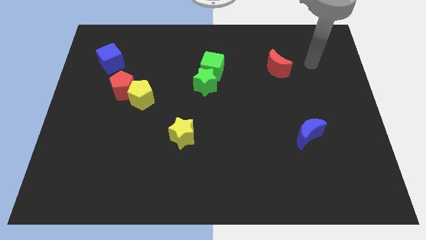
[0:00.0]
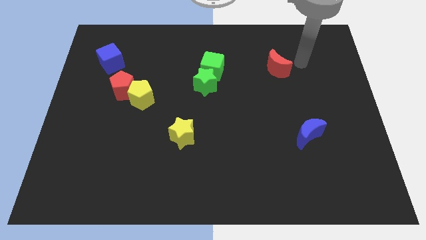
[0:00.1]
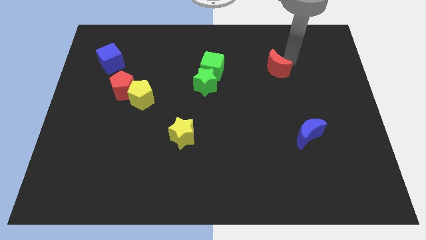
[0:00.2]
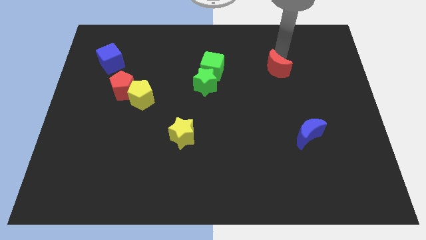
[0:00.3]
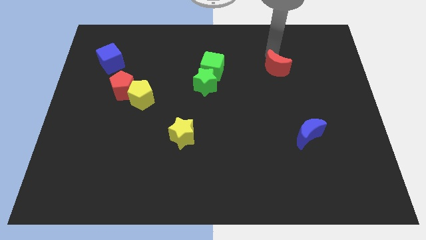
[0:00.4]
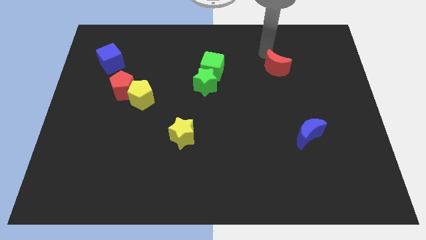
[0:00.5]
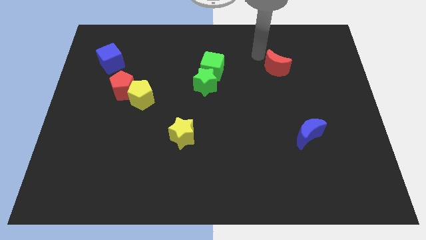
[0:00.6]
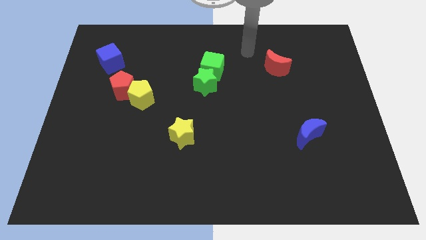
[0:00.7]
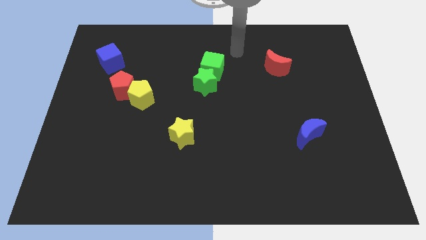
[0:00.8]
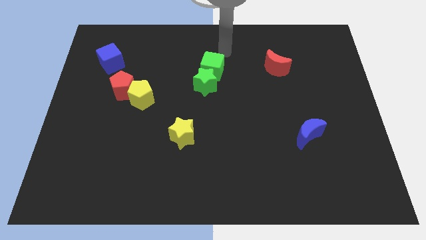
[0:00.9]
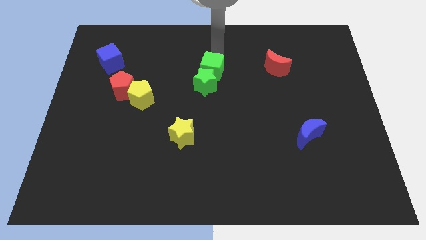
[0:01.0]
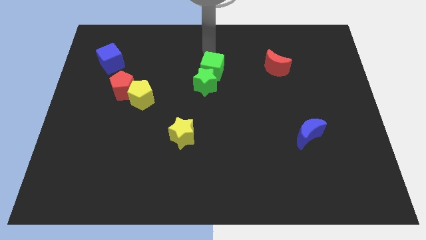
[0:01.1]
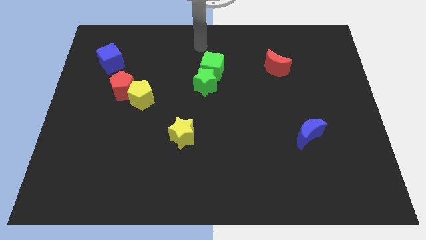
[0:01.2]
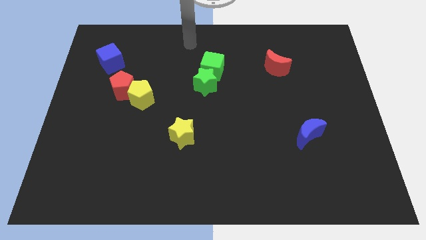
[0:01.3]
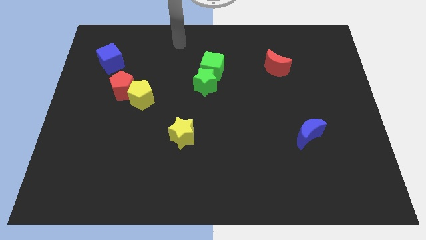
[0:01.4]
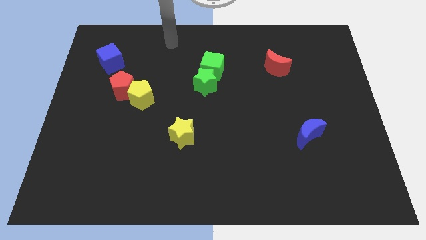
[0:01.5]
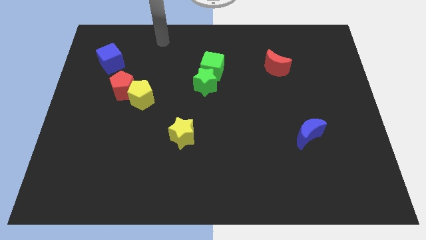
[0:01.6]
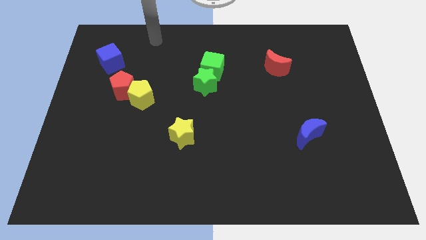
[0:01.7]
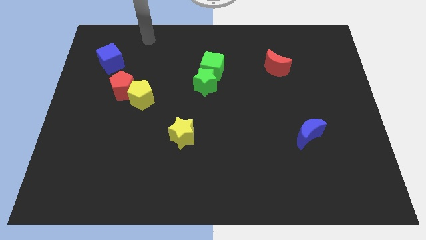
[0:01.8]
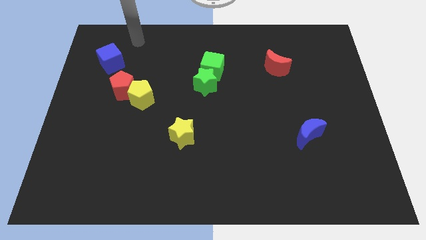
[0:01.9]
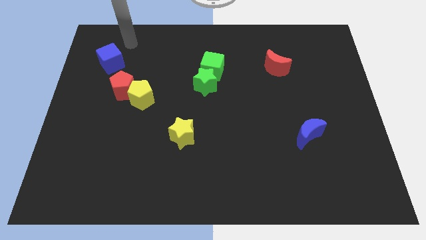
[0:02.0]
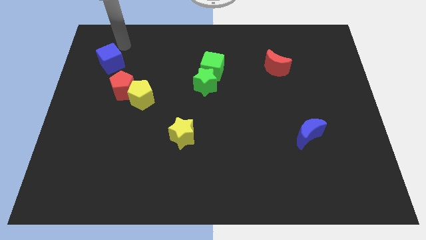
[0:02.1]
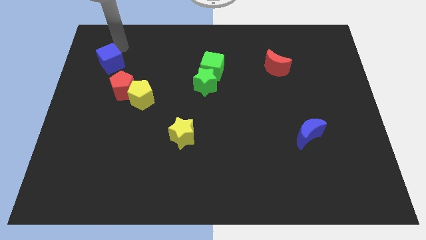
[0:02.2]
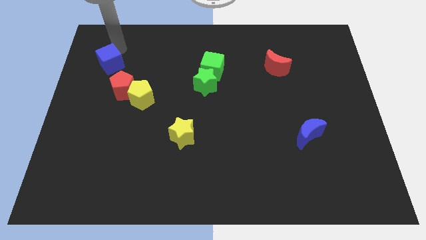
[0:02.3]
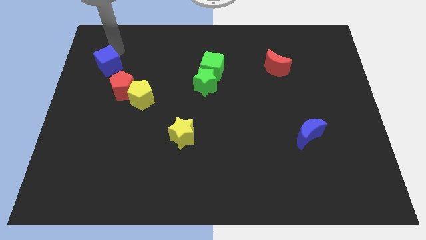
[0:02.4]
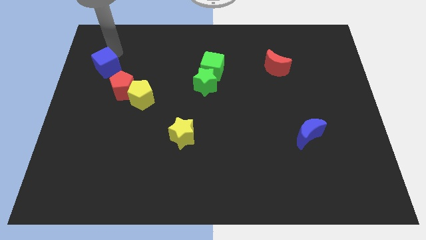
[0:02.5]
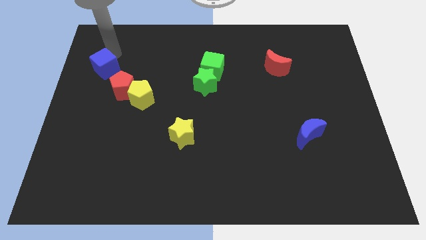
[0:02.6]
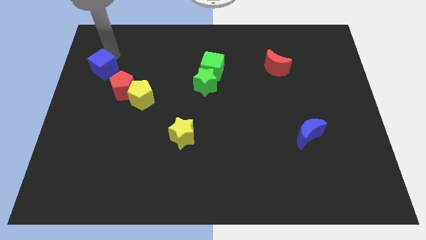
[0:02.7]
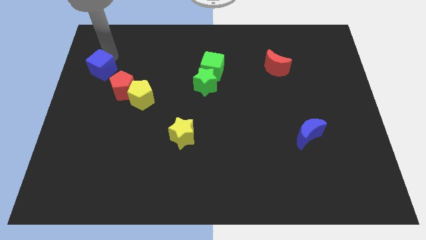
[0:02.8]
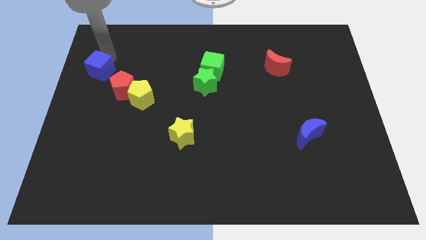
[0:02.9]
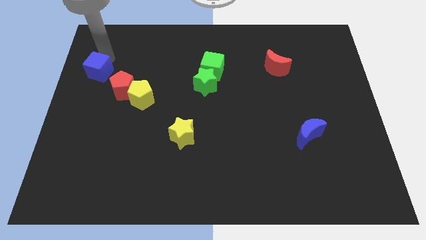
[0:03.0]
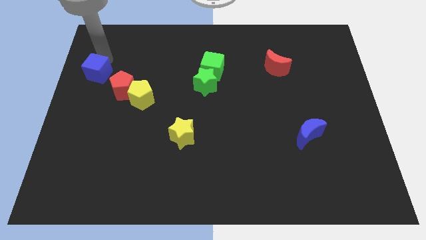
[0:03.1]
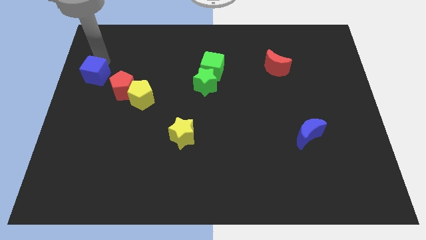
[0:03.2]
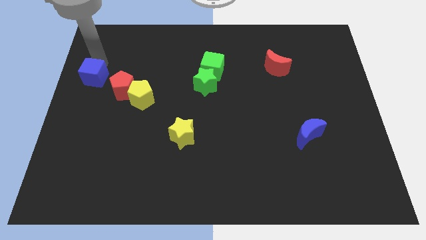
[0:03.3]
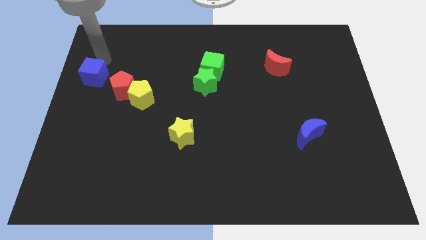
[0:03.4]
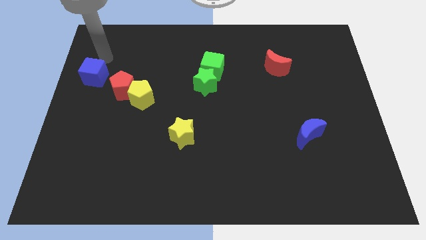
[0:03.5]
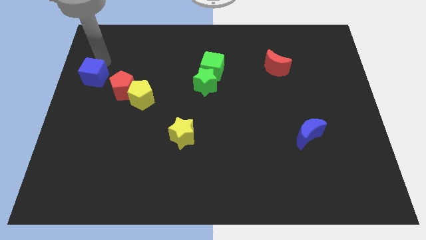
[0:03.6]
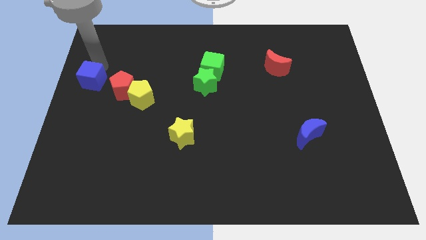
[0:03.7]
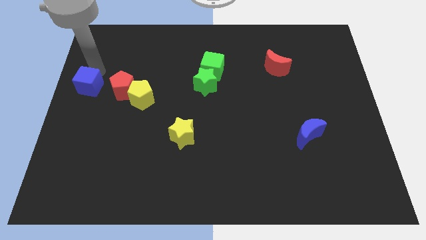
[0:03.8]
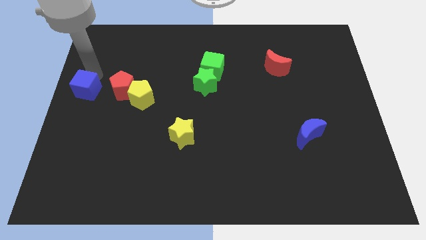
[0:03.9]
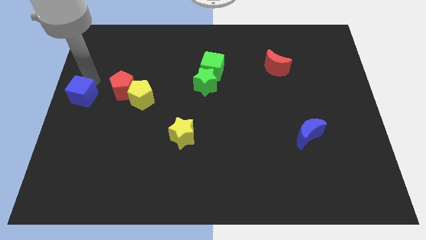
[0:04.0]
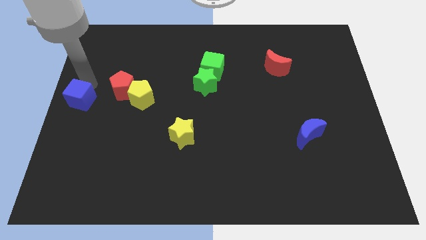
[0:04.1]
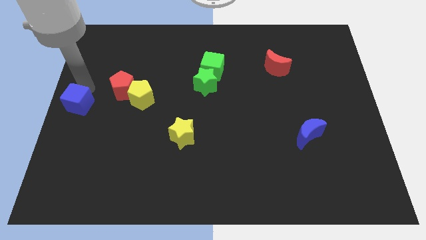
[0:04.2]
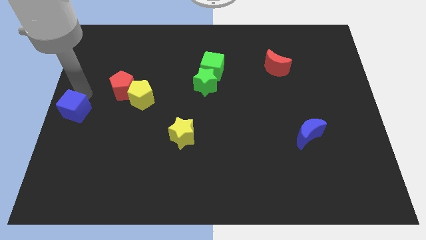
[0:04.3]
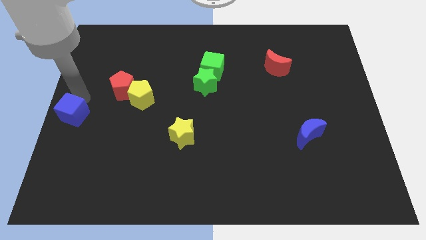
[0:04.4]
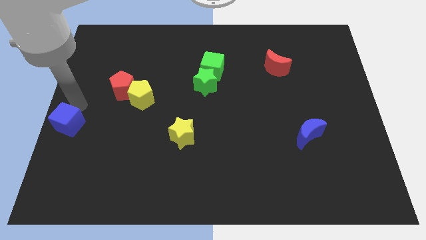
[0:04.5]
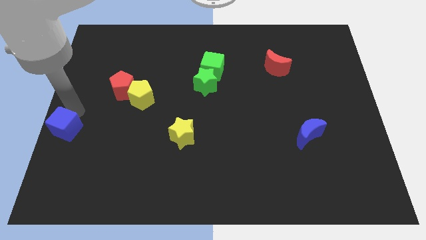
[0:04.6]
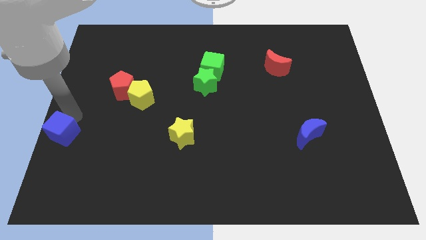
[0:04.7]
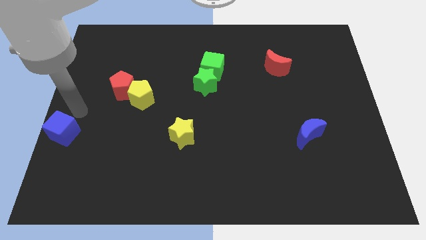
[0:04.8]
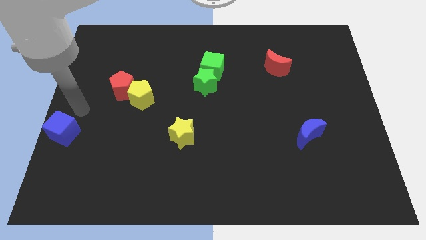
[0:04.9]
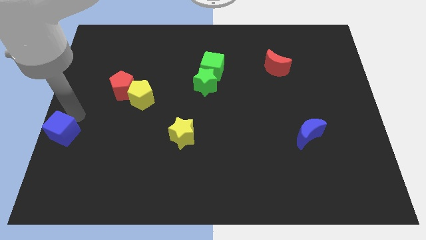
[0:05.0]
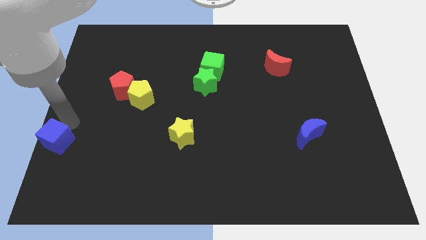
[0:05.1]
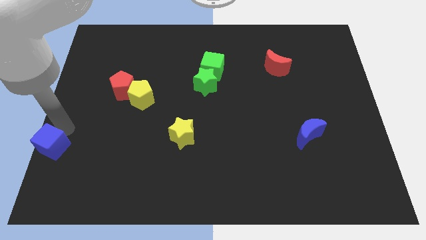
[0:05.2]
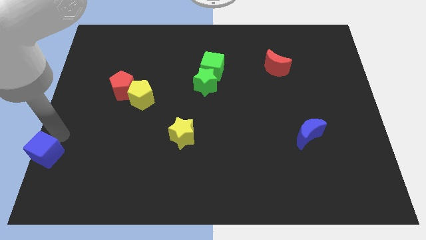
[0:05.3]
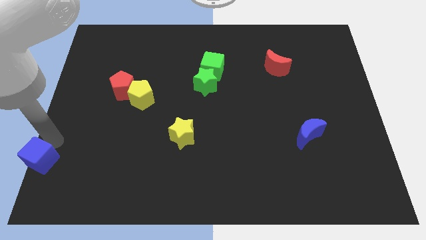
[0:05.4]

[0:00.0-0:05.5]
slide the blue cube to the bottom left

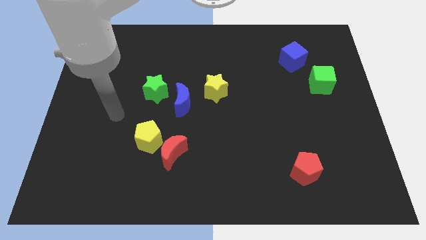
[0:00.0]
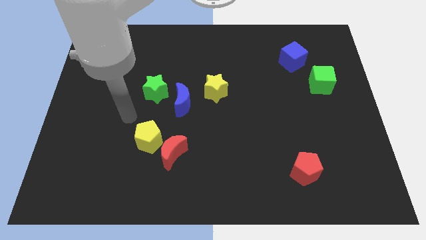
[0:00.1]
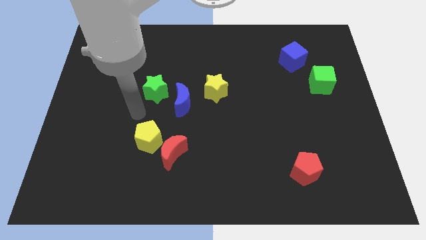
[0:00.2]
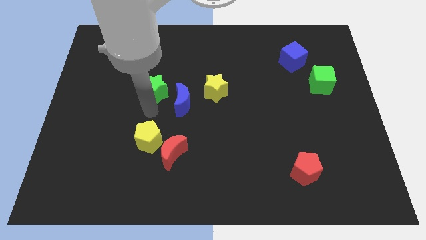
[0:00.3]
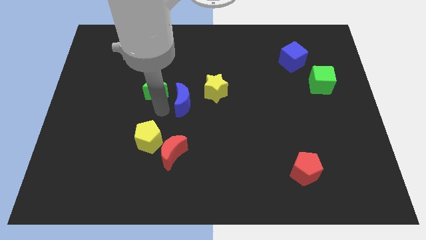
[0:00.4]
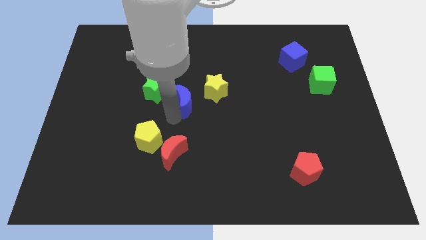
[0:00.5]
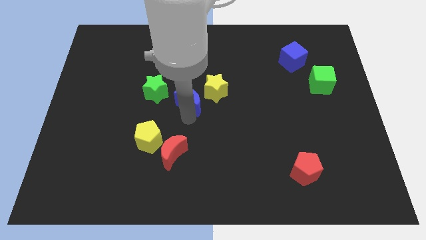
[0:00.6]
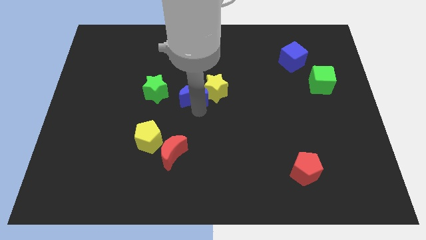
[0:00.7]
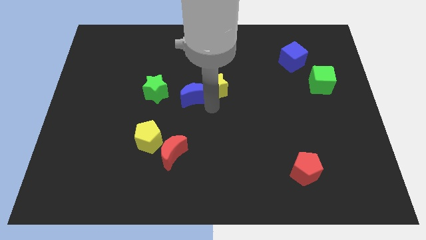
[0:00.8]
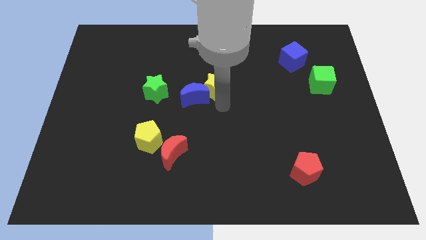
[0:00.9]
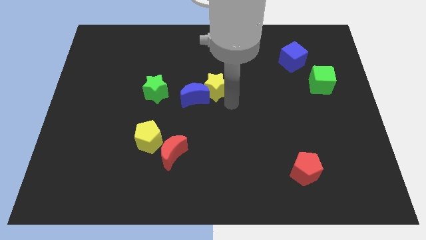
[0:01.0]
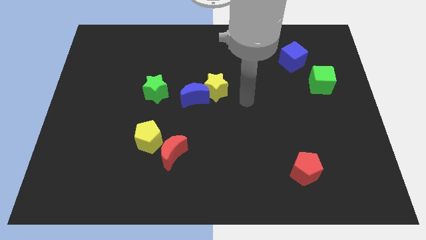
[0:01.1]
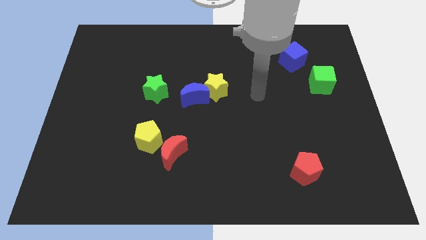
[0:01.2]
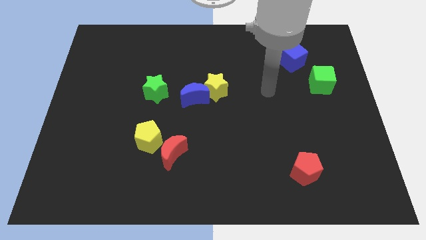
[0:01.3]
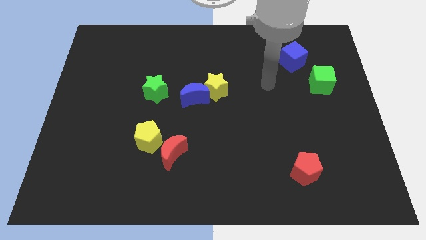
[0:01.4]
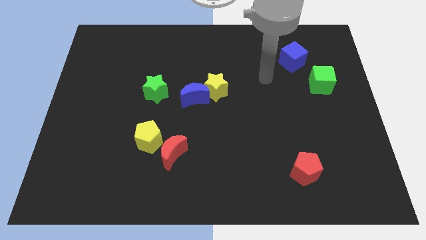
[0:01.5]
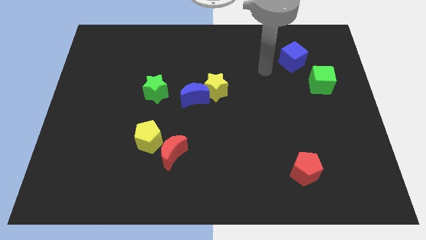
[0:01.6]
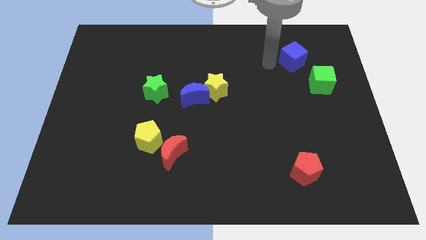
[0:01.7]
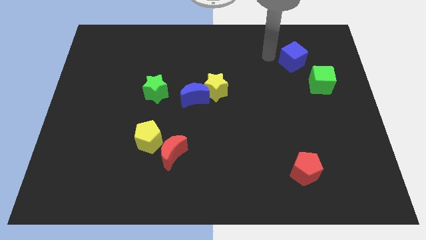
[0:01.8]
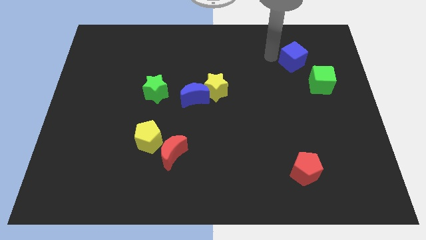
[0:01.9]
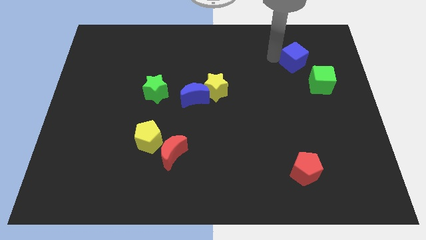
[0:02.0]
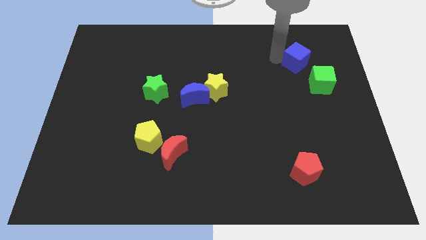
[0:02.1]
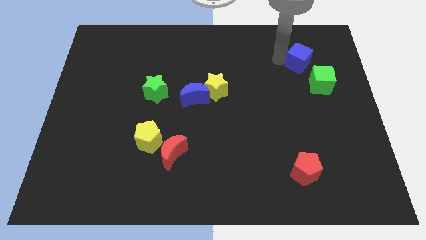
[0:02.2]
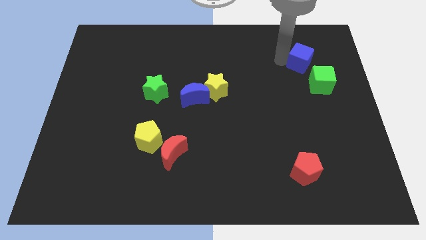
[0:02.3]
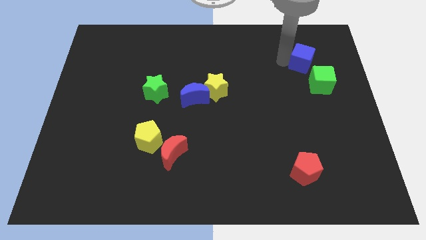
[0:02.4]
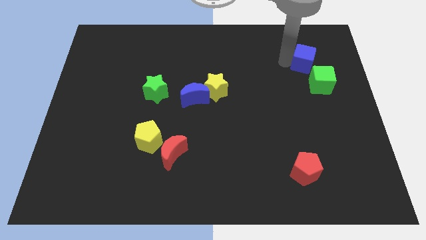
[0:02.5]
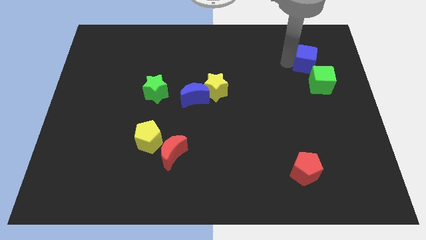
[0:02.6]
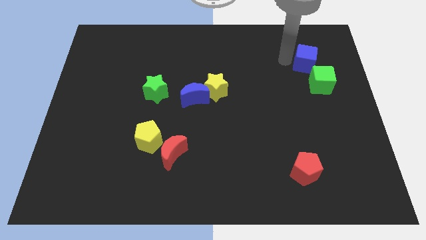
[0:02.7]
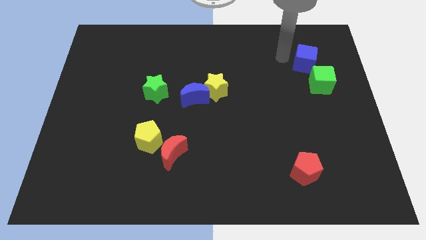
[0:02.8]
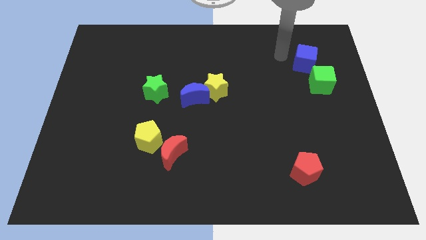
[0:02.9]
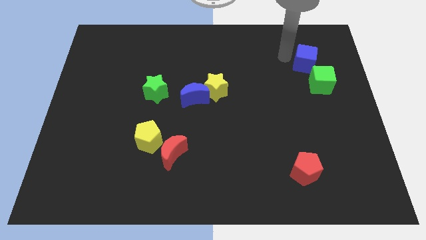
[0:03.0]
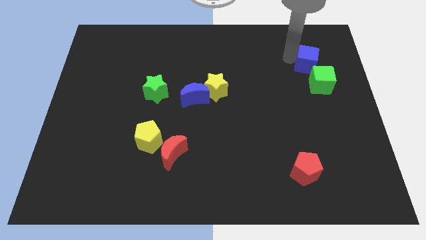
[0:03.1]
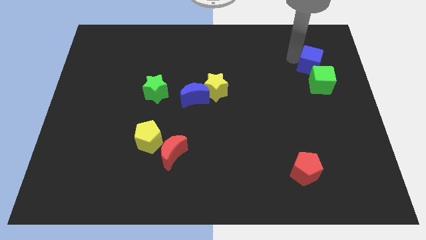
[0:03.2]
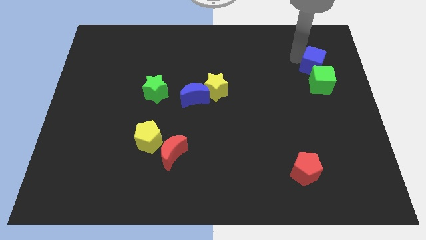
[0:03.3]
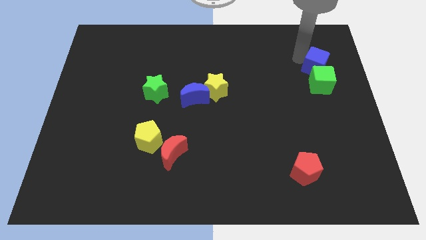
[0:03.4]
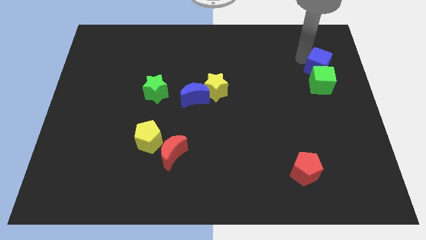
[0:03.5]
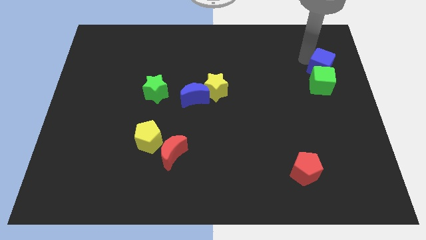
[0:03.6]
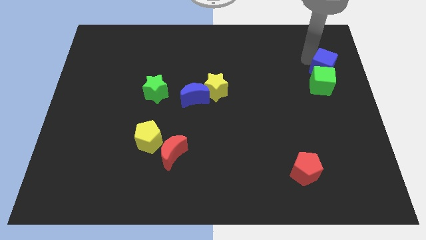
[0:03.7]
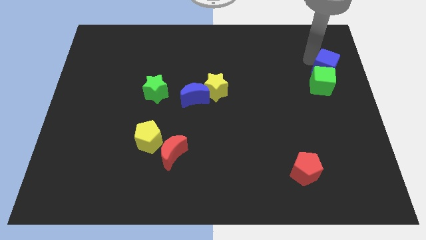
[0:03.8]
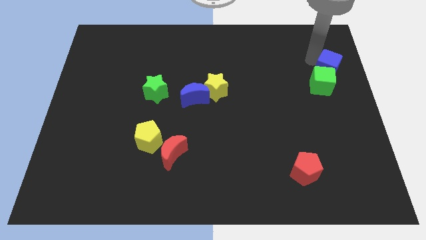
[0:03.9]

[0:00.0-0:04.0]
push the blue cube to the center right
